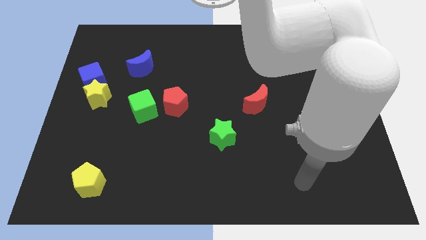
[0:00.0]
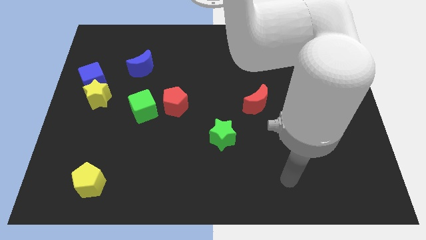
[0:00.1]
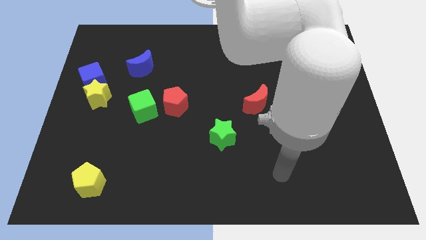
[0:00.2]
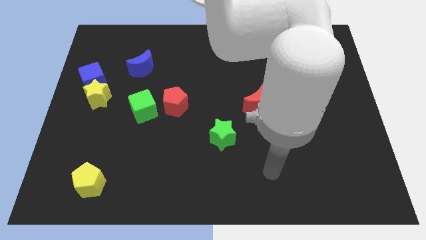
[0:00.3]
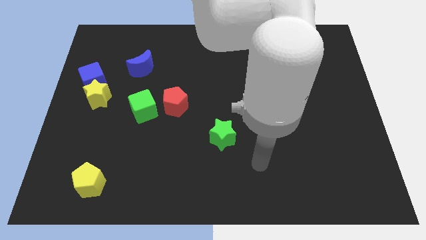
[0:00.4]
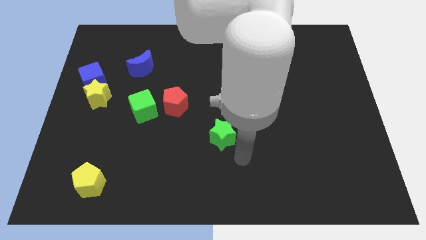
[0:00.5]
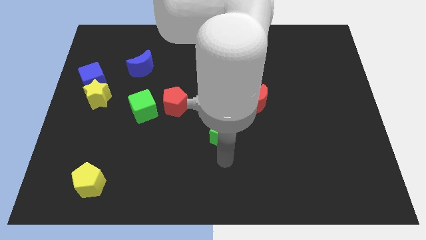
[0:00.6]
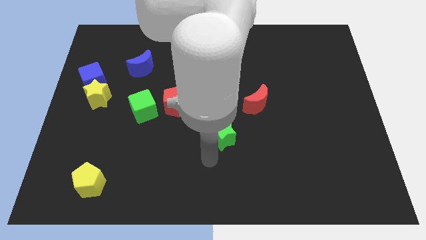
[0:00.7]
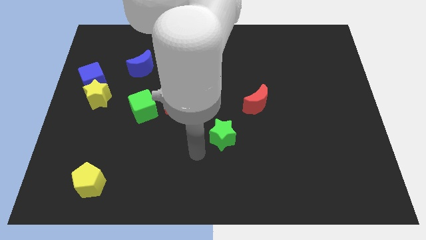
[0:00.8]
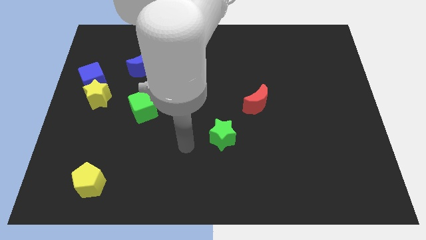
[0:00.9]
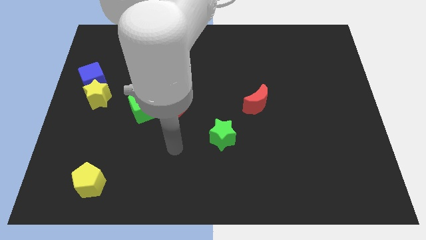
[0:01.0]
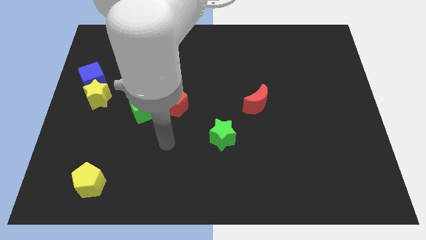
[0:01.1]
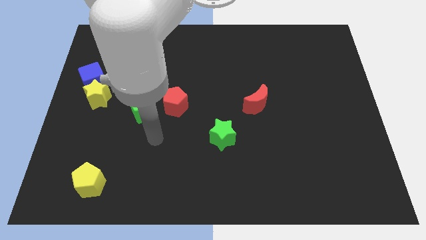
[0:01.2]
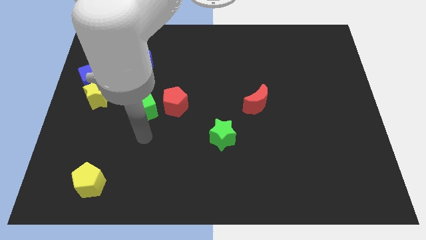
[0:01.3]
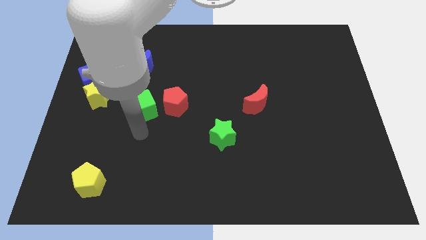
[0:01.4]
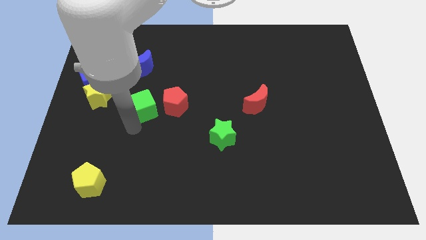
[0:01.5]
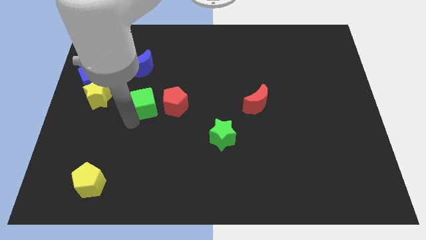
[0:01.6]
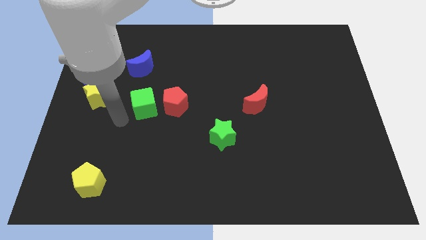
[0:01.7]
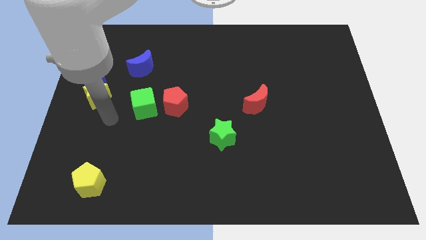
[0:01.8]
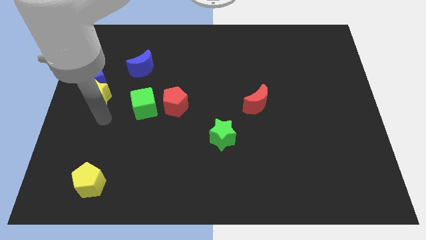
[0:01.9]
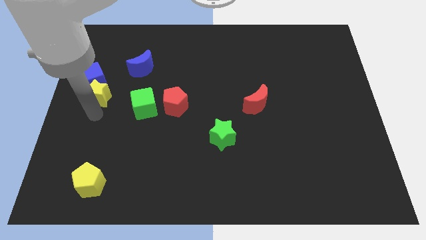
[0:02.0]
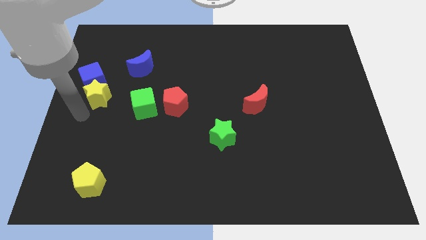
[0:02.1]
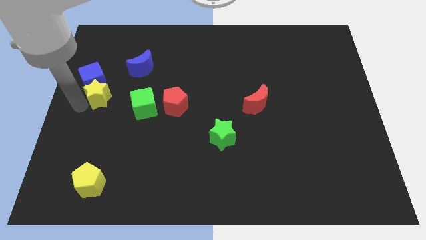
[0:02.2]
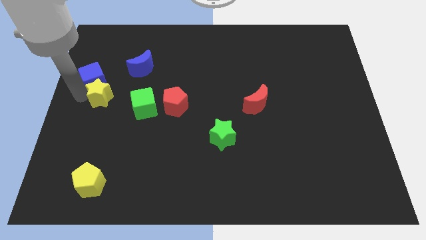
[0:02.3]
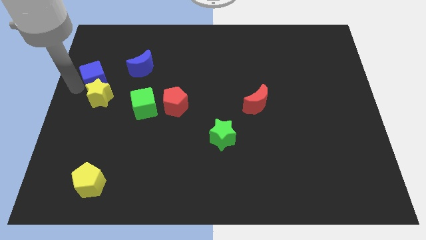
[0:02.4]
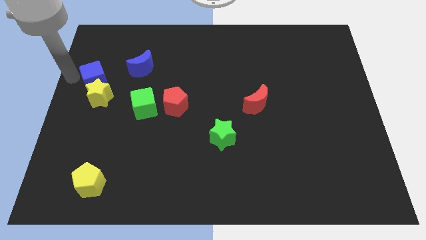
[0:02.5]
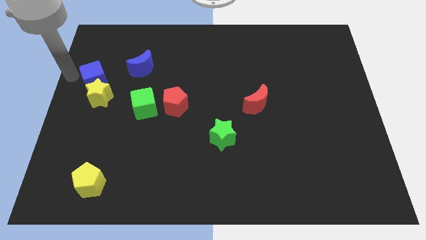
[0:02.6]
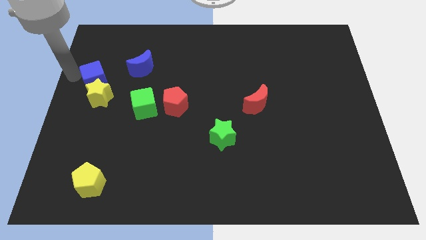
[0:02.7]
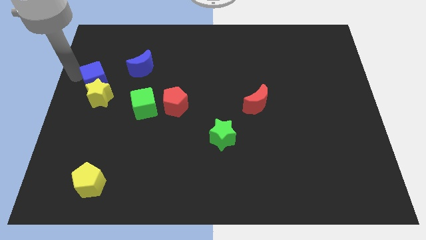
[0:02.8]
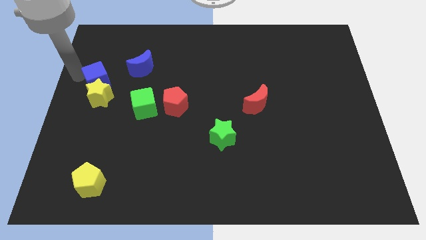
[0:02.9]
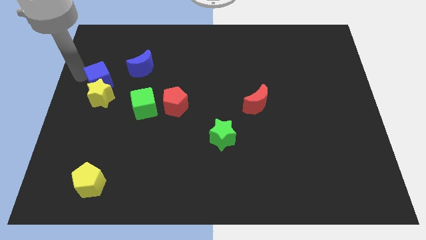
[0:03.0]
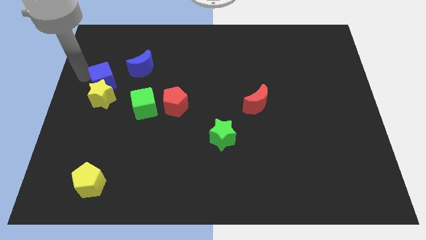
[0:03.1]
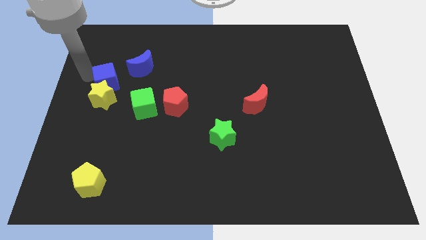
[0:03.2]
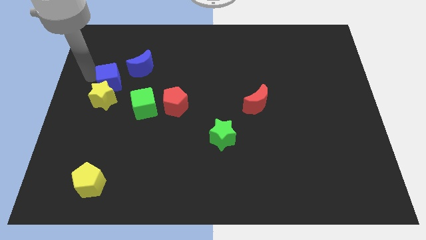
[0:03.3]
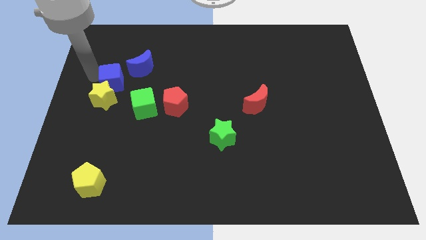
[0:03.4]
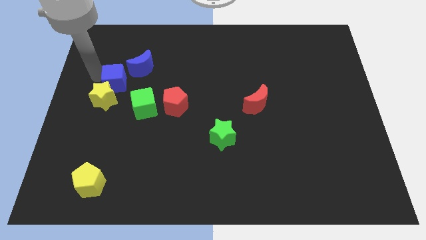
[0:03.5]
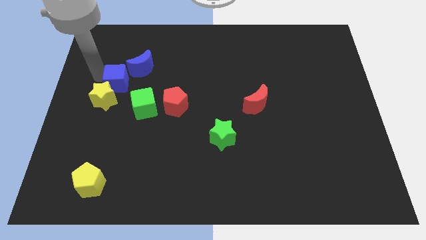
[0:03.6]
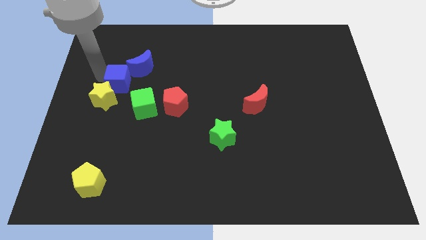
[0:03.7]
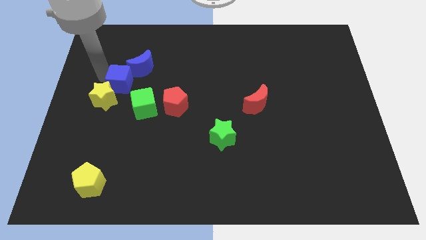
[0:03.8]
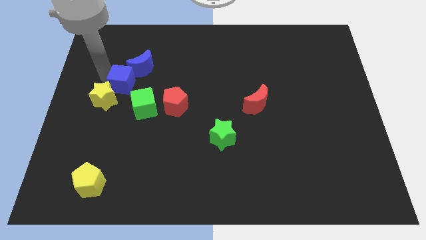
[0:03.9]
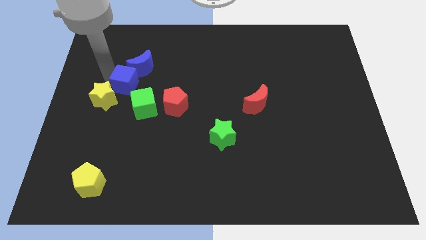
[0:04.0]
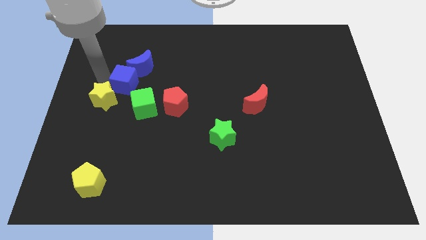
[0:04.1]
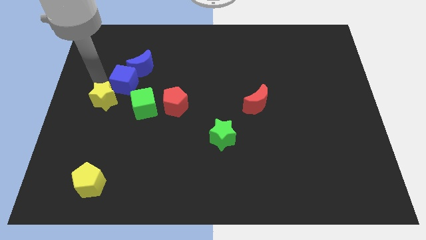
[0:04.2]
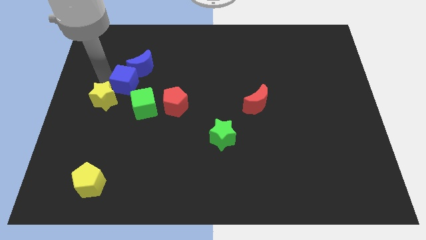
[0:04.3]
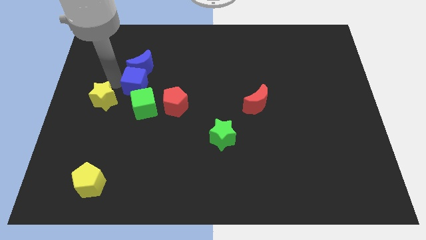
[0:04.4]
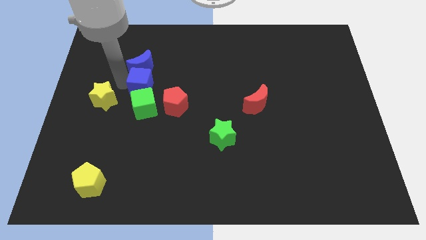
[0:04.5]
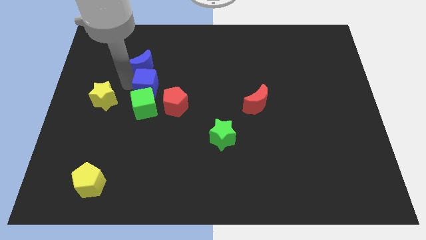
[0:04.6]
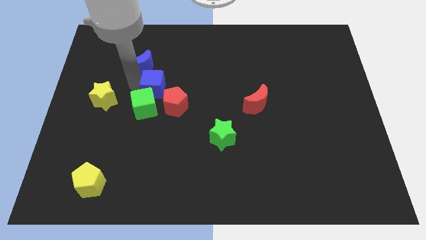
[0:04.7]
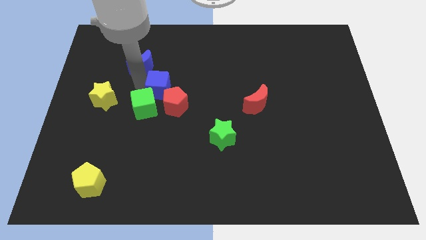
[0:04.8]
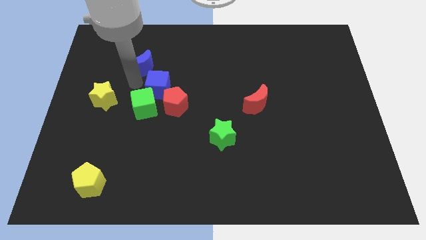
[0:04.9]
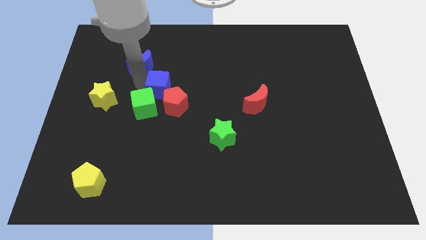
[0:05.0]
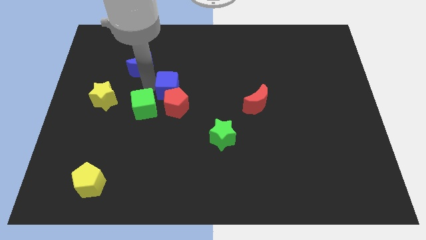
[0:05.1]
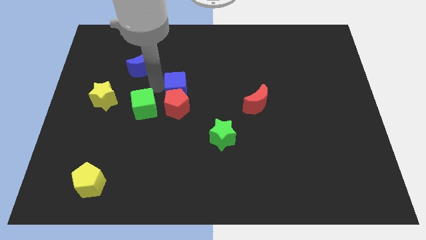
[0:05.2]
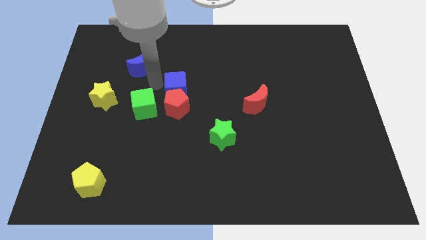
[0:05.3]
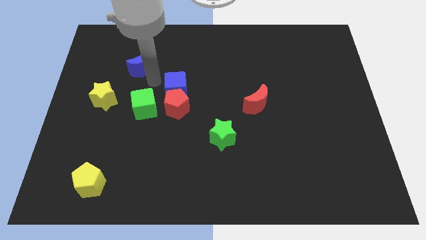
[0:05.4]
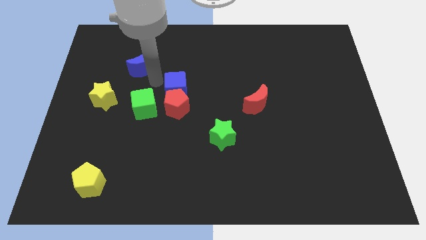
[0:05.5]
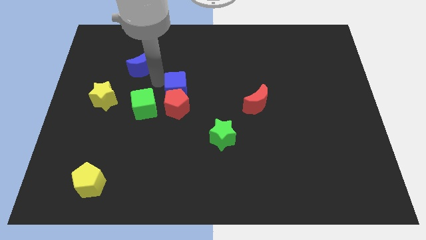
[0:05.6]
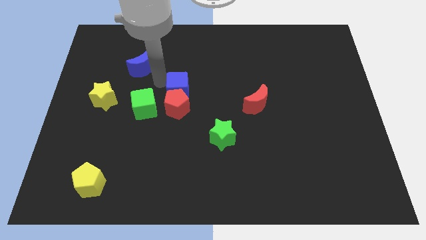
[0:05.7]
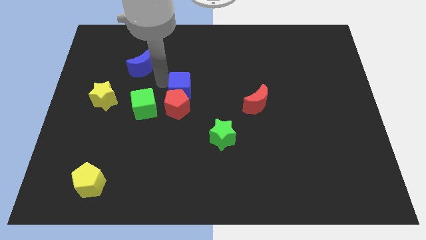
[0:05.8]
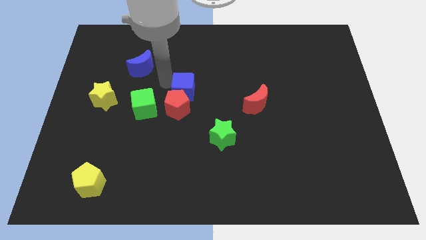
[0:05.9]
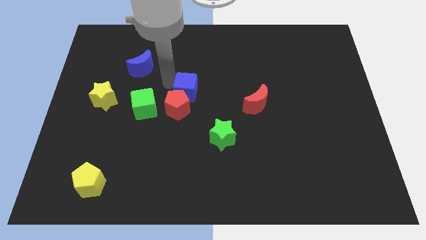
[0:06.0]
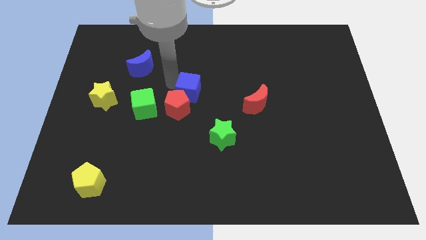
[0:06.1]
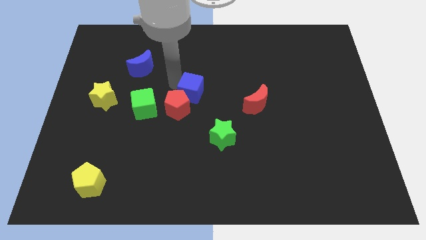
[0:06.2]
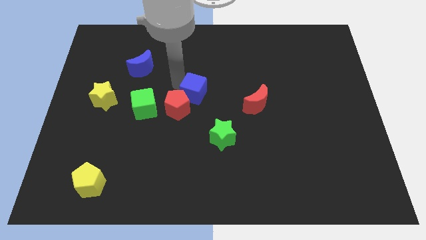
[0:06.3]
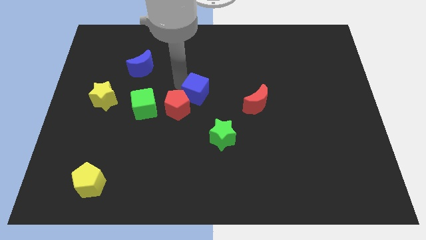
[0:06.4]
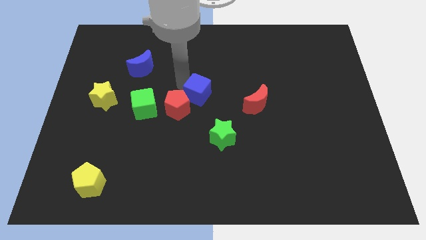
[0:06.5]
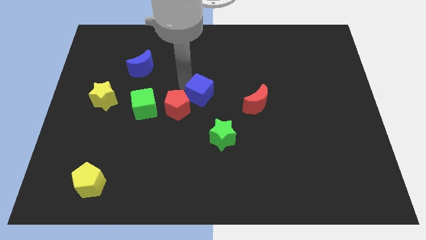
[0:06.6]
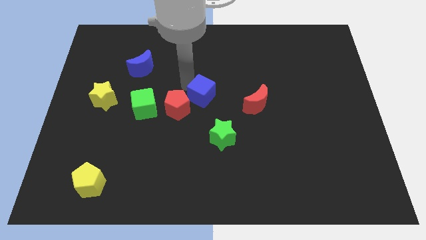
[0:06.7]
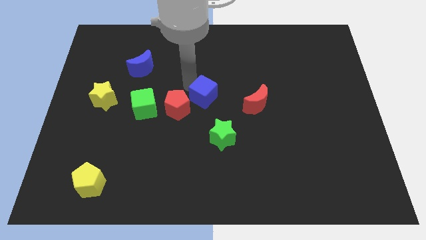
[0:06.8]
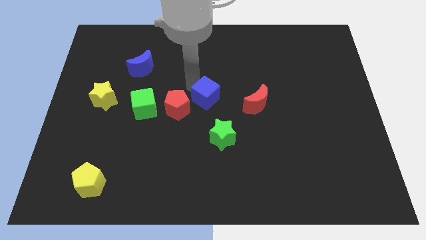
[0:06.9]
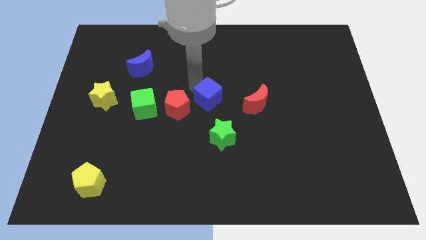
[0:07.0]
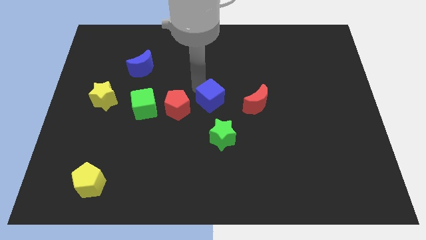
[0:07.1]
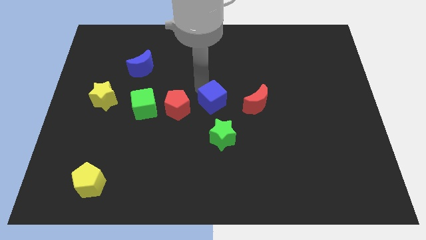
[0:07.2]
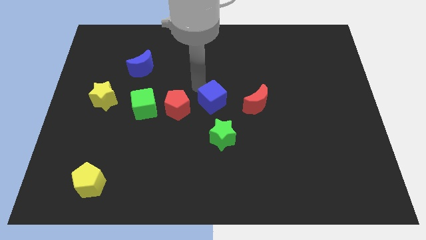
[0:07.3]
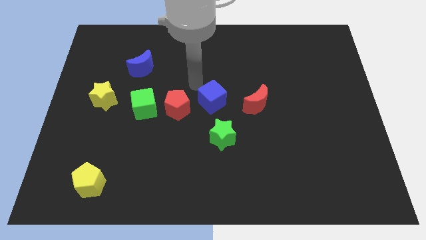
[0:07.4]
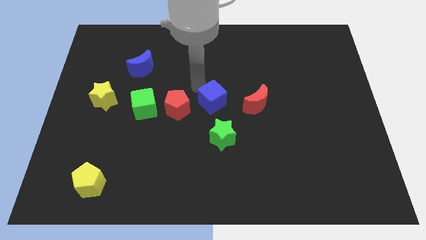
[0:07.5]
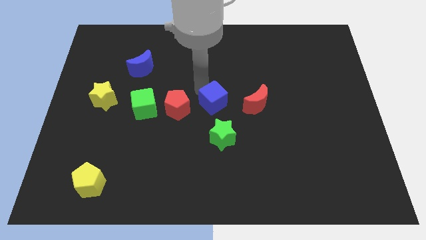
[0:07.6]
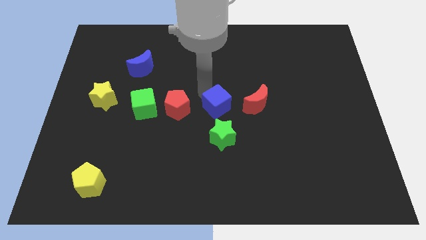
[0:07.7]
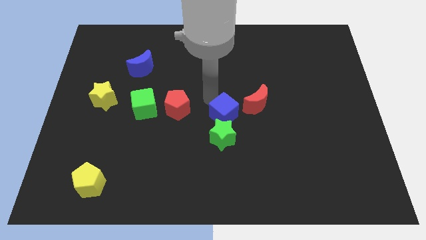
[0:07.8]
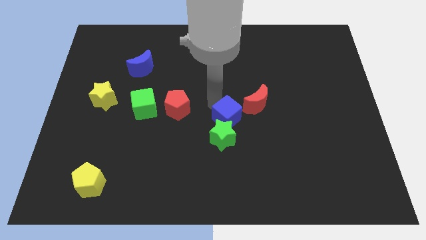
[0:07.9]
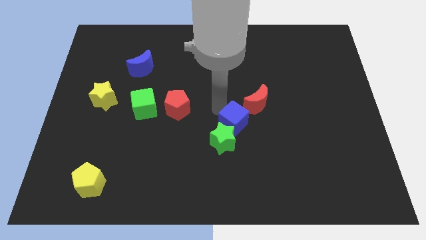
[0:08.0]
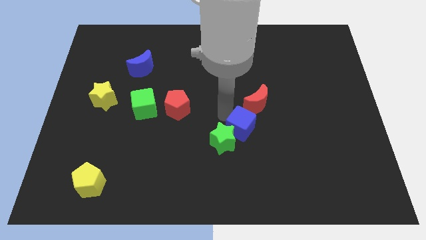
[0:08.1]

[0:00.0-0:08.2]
slide the blue cube to the right side of the green star
